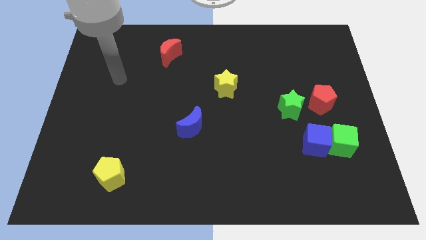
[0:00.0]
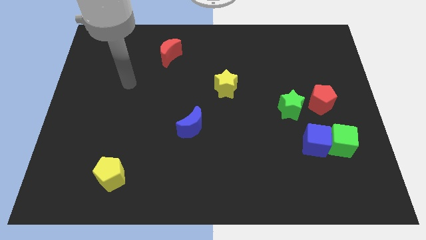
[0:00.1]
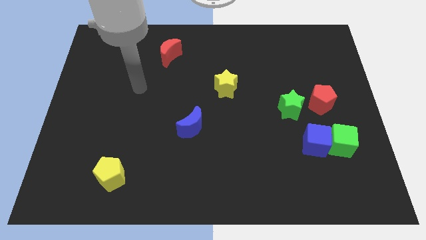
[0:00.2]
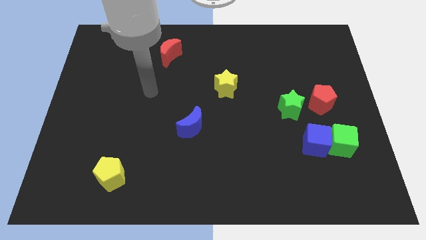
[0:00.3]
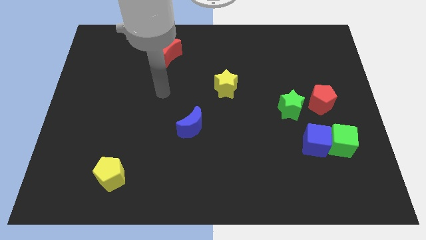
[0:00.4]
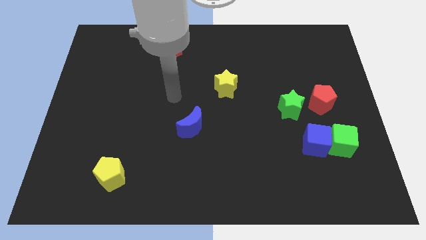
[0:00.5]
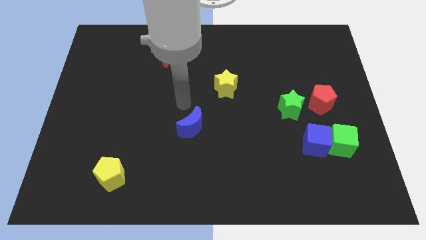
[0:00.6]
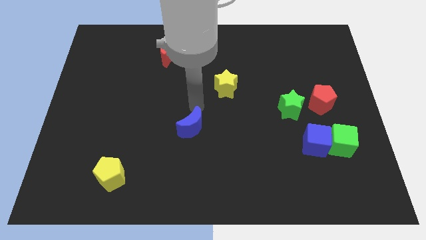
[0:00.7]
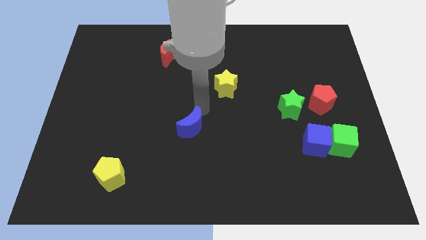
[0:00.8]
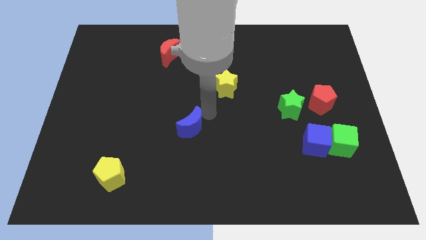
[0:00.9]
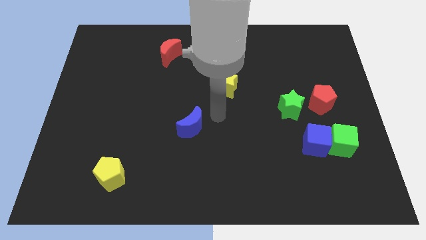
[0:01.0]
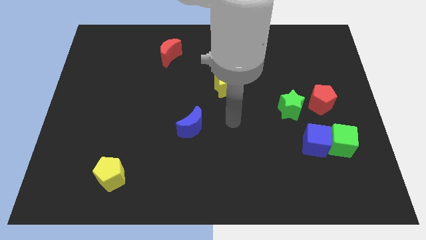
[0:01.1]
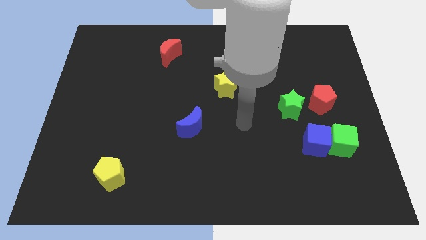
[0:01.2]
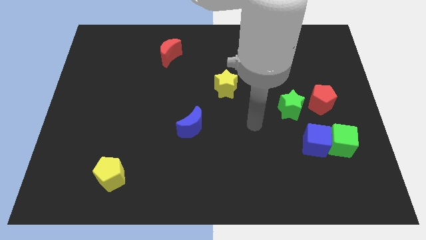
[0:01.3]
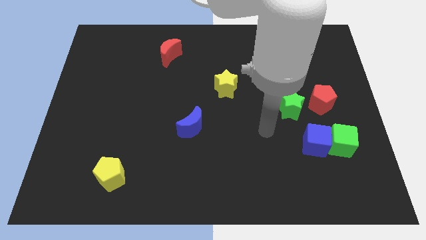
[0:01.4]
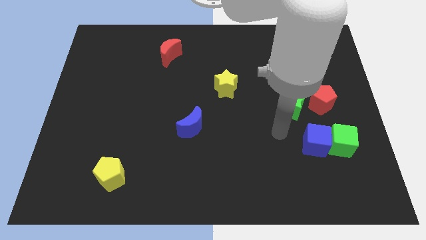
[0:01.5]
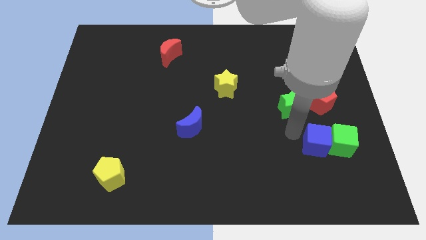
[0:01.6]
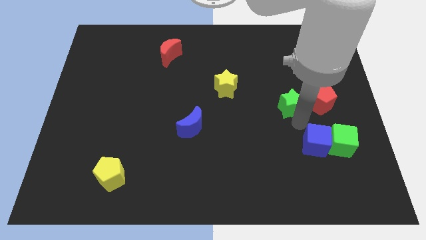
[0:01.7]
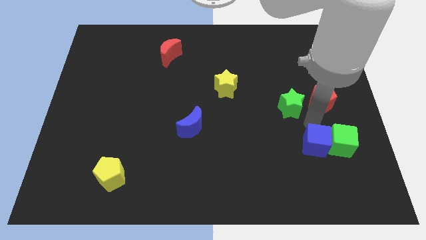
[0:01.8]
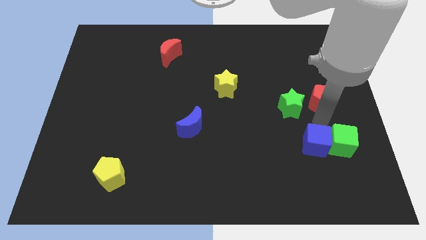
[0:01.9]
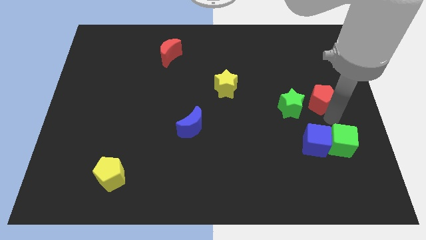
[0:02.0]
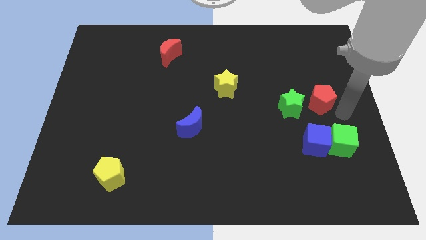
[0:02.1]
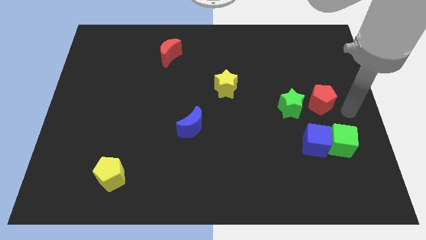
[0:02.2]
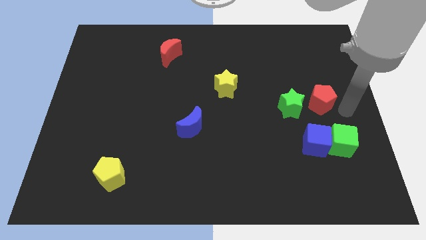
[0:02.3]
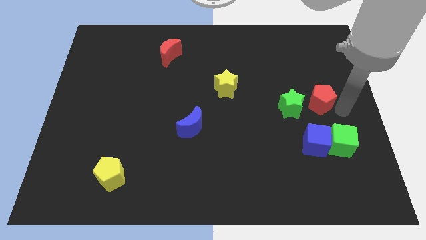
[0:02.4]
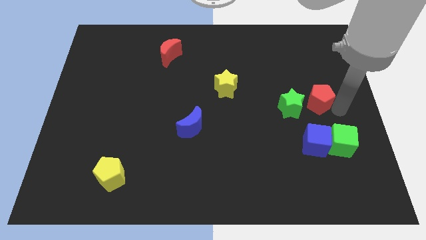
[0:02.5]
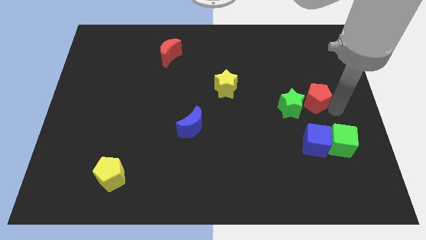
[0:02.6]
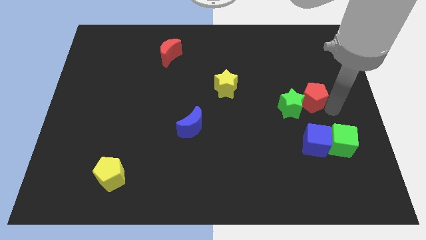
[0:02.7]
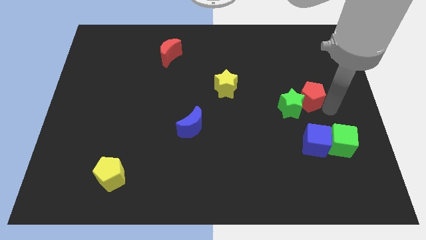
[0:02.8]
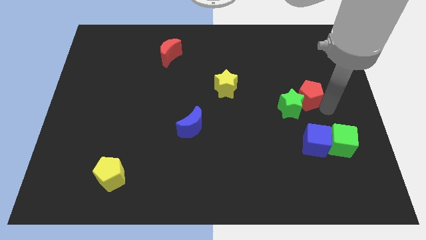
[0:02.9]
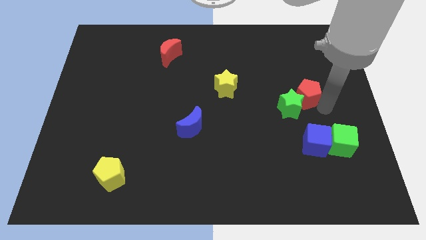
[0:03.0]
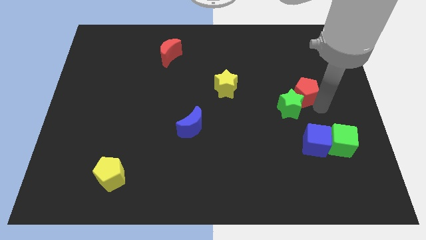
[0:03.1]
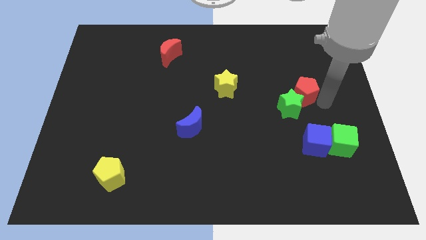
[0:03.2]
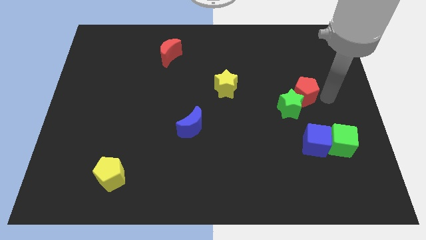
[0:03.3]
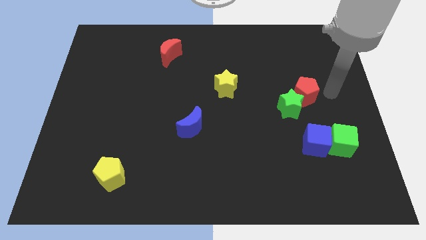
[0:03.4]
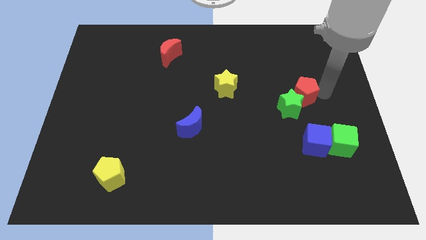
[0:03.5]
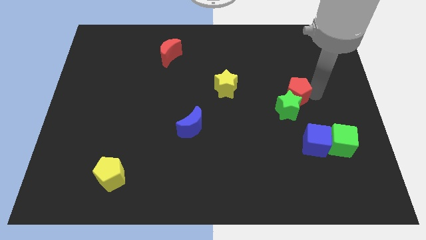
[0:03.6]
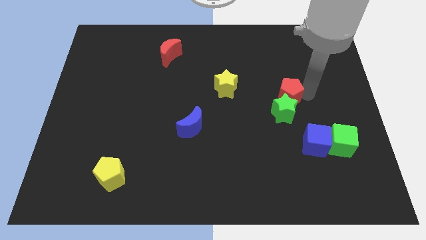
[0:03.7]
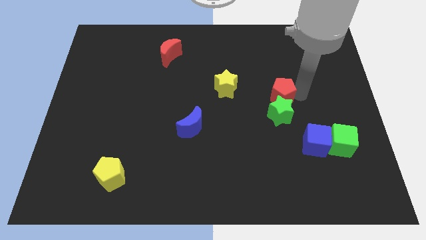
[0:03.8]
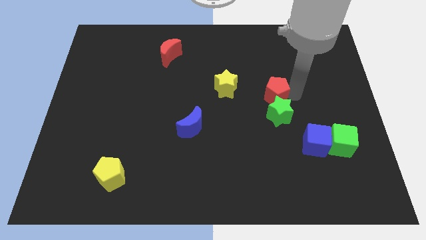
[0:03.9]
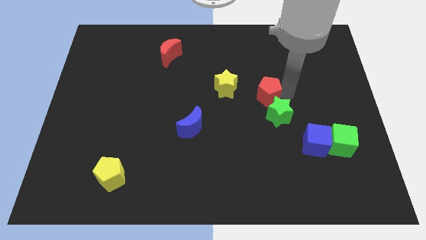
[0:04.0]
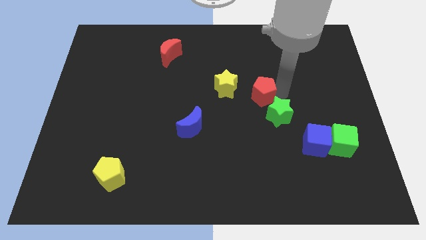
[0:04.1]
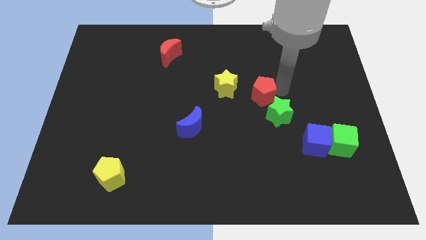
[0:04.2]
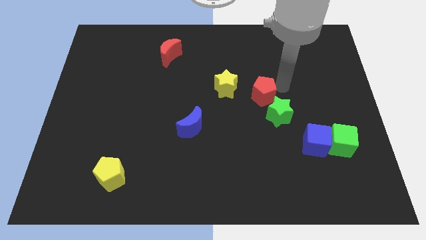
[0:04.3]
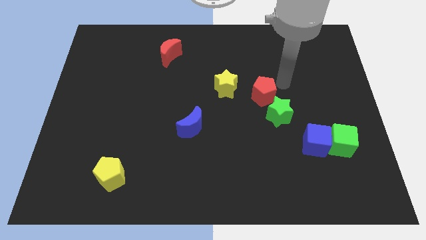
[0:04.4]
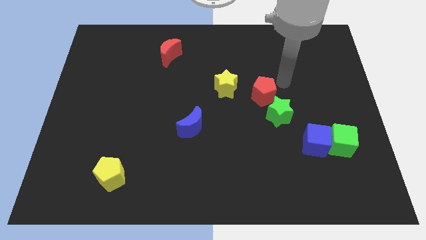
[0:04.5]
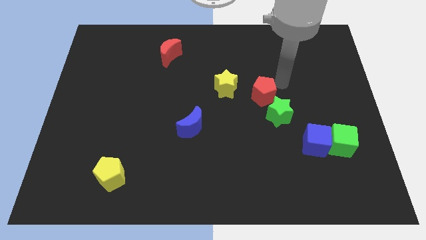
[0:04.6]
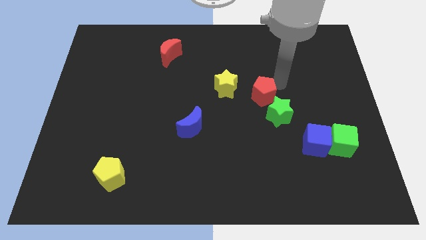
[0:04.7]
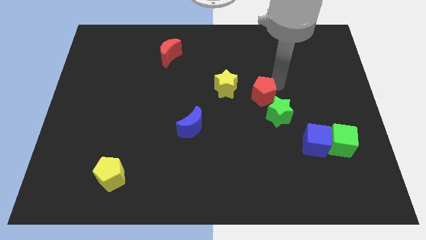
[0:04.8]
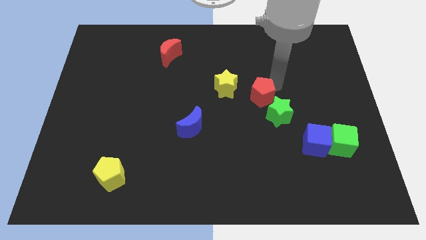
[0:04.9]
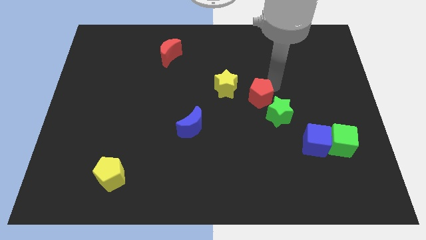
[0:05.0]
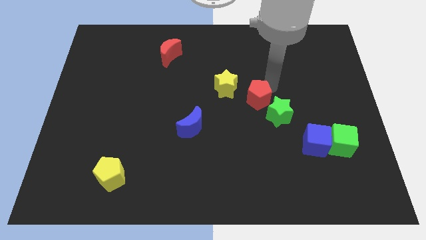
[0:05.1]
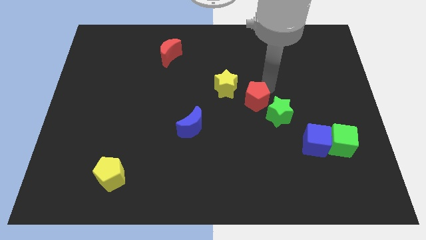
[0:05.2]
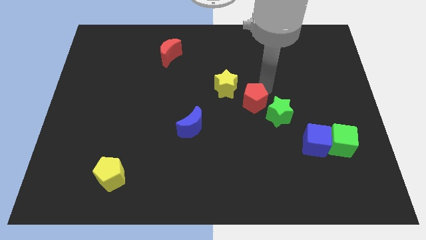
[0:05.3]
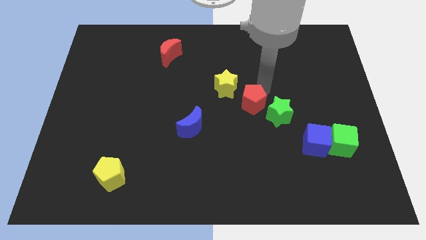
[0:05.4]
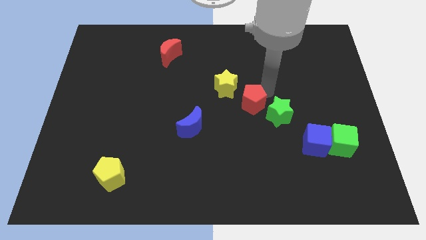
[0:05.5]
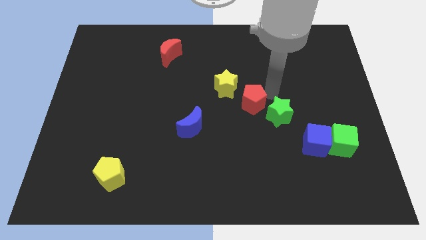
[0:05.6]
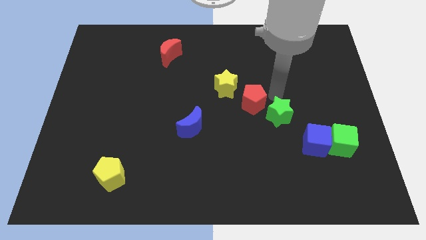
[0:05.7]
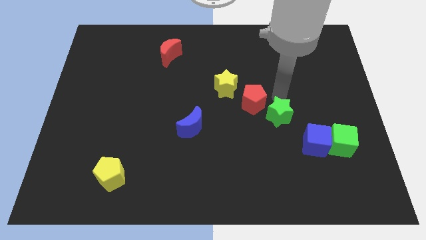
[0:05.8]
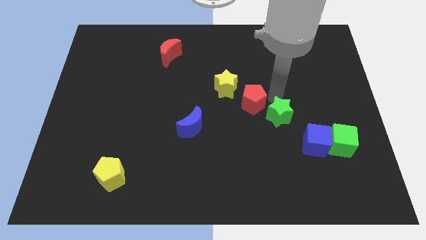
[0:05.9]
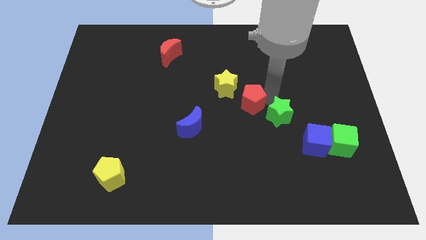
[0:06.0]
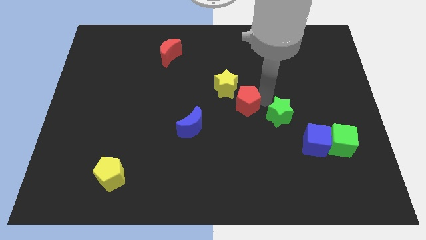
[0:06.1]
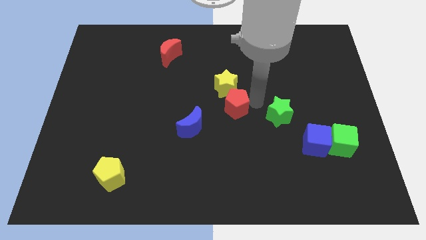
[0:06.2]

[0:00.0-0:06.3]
move the red pentagon to the top right of the blue moon

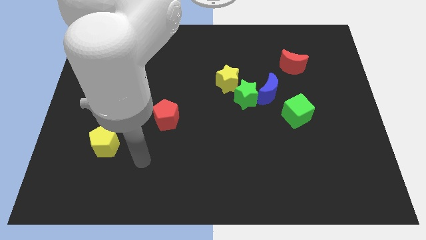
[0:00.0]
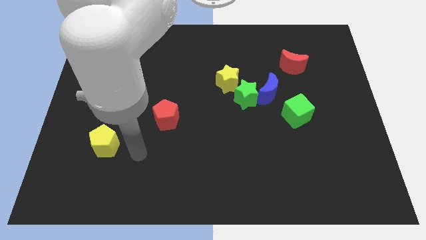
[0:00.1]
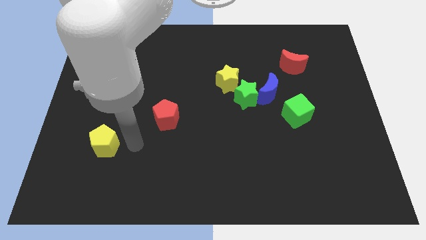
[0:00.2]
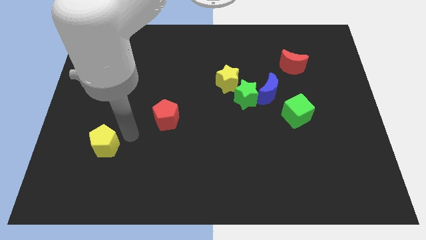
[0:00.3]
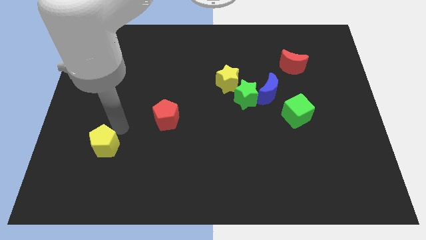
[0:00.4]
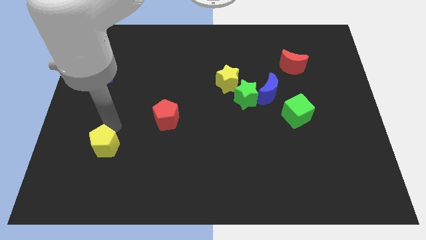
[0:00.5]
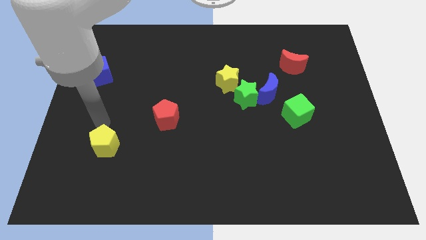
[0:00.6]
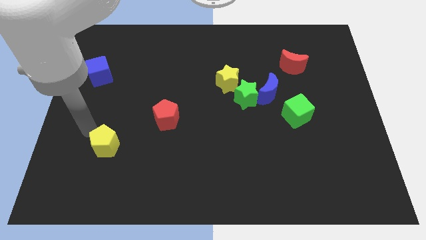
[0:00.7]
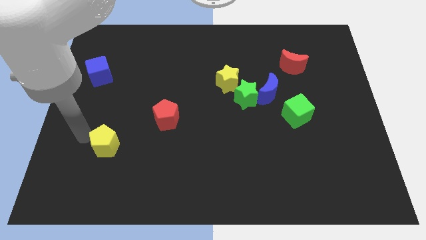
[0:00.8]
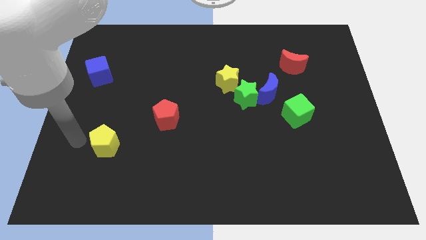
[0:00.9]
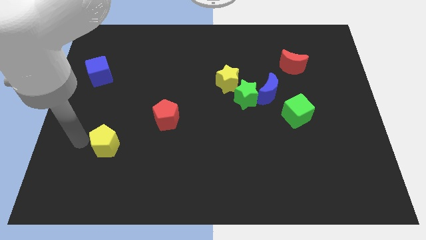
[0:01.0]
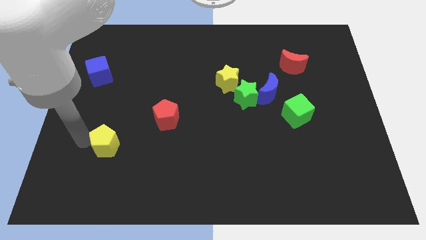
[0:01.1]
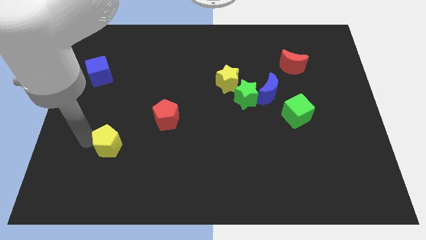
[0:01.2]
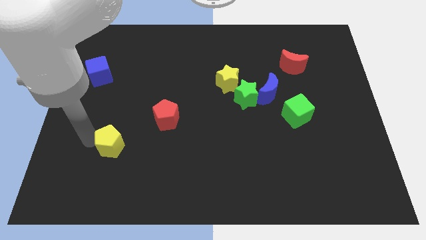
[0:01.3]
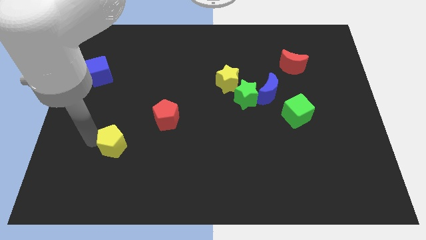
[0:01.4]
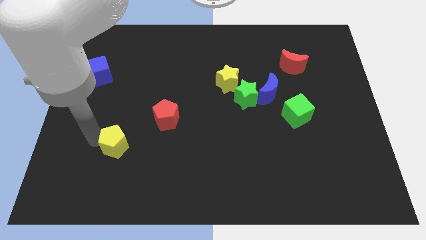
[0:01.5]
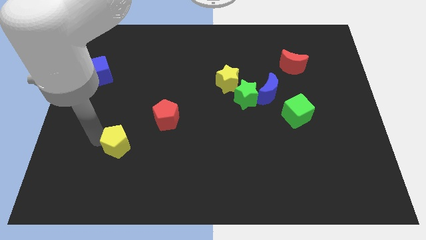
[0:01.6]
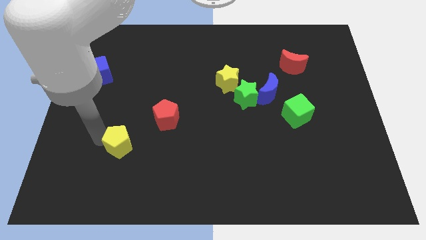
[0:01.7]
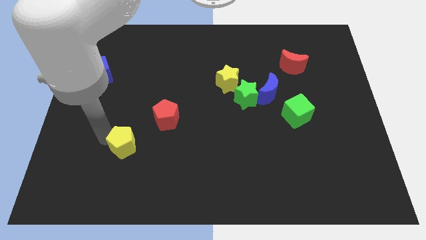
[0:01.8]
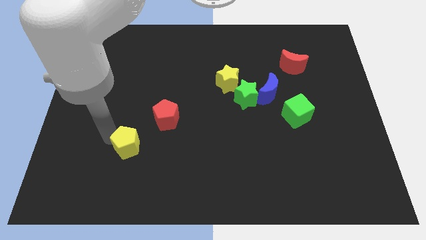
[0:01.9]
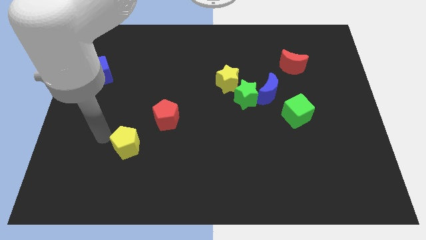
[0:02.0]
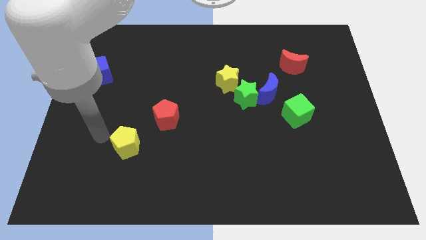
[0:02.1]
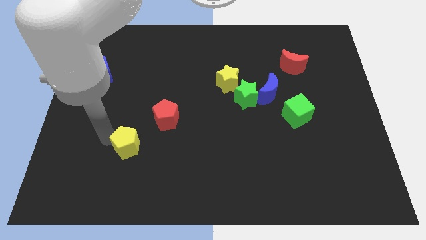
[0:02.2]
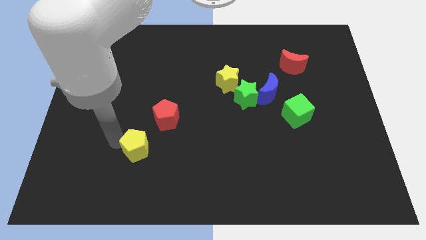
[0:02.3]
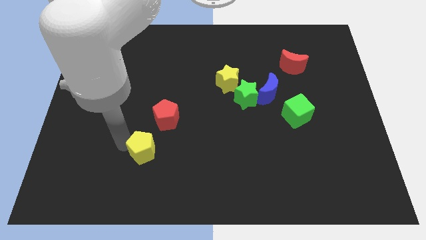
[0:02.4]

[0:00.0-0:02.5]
put the yellow pentagon to the bottom of the red pentagon
